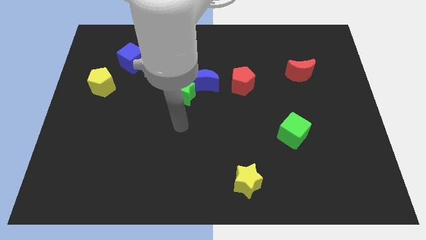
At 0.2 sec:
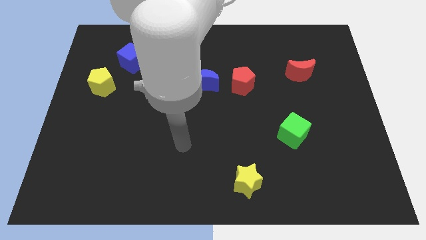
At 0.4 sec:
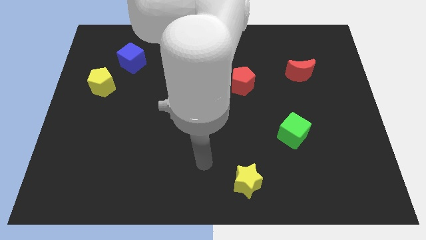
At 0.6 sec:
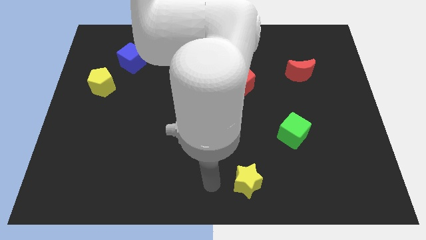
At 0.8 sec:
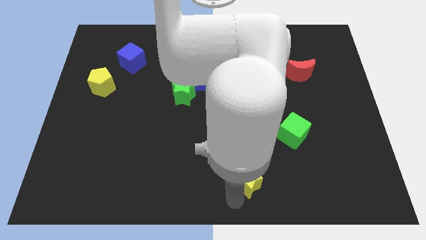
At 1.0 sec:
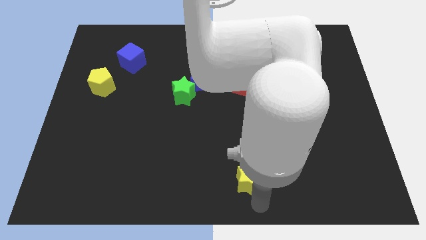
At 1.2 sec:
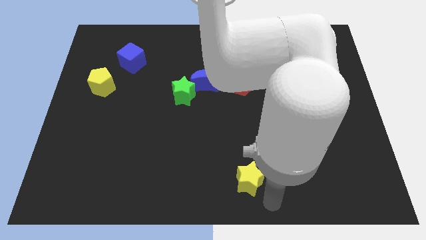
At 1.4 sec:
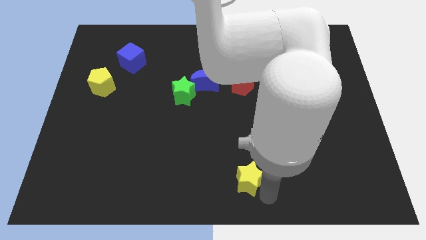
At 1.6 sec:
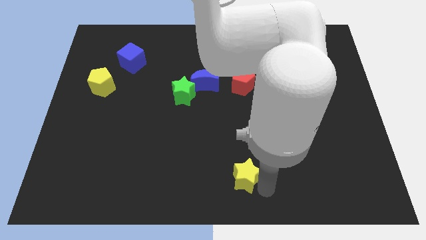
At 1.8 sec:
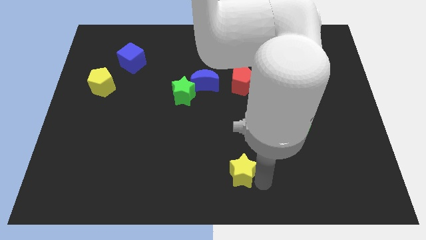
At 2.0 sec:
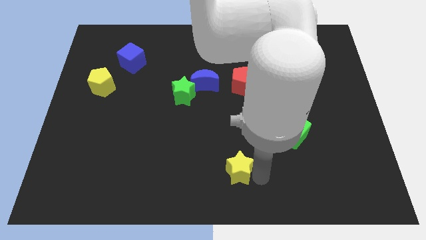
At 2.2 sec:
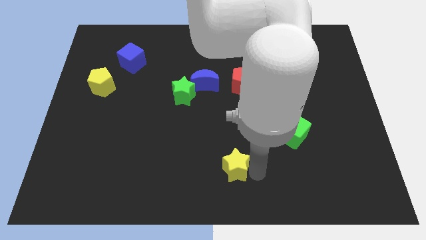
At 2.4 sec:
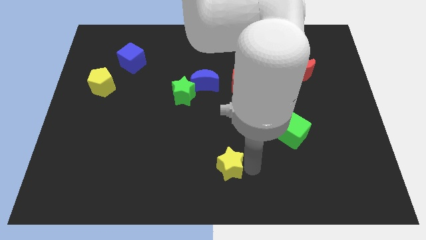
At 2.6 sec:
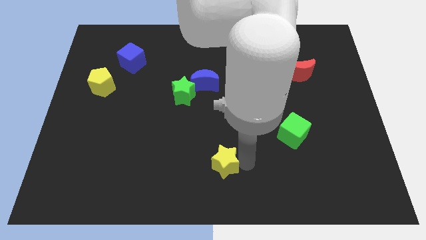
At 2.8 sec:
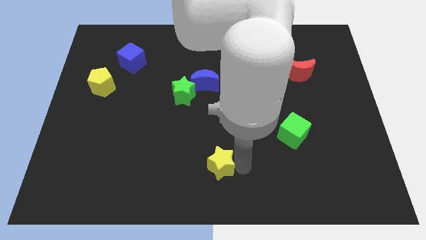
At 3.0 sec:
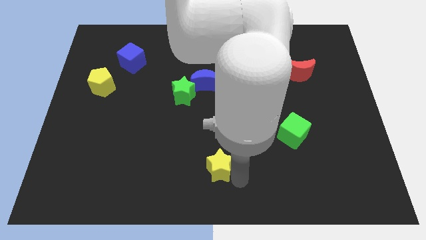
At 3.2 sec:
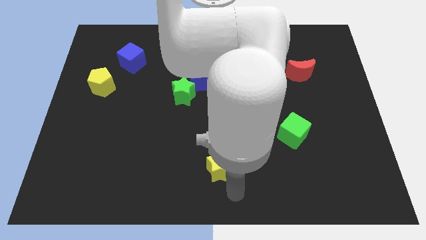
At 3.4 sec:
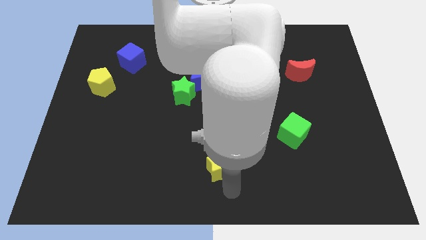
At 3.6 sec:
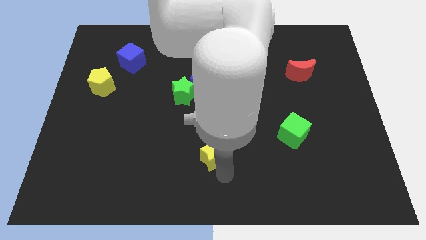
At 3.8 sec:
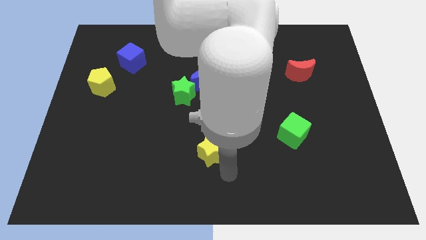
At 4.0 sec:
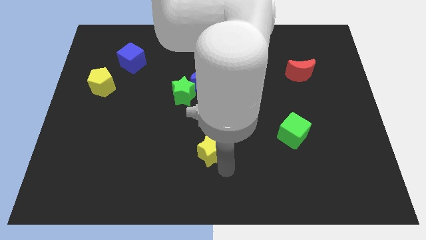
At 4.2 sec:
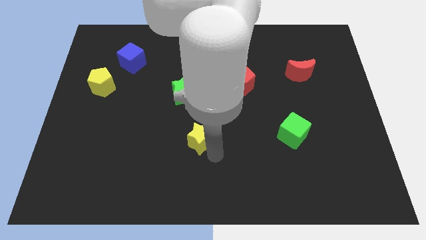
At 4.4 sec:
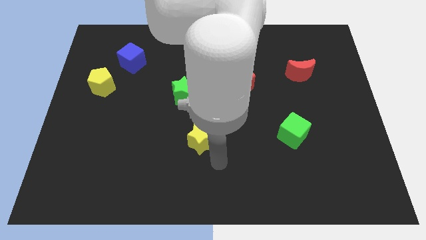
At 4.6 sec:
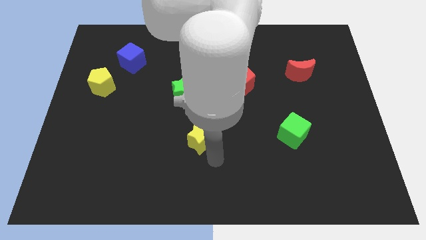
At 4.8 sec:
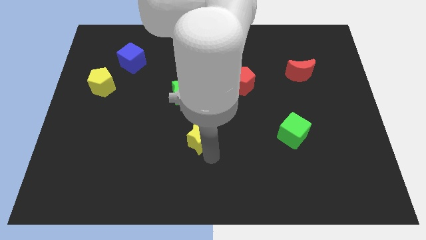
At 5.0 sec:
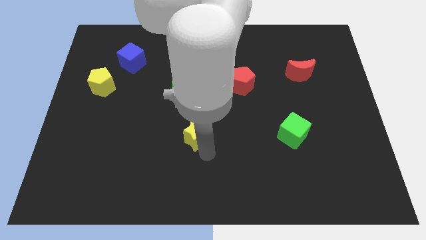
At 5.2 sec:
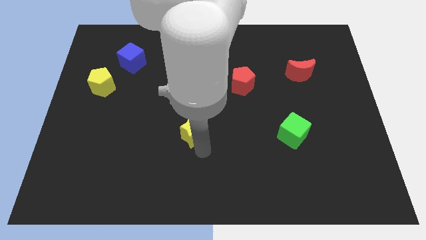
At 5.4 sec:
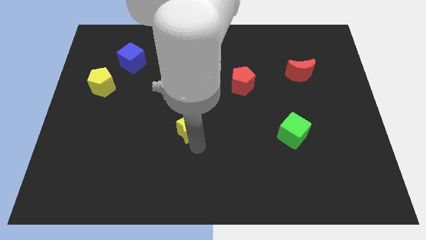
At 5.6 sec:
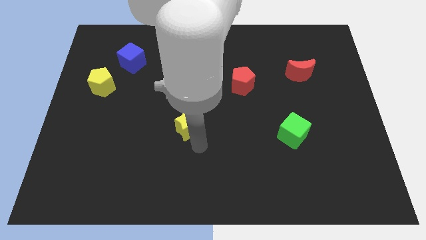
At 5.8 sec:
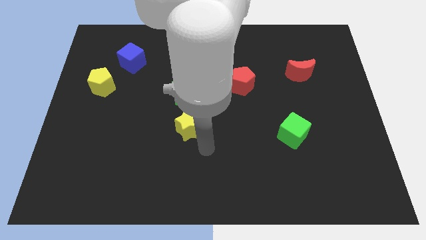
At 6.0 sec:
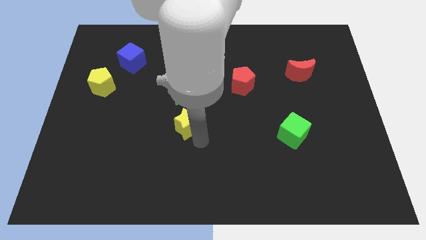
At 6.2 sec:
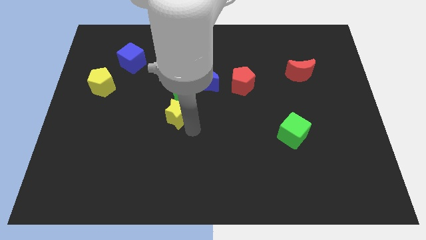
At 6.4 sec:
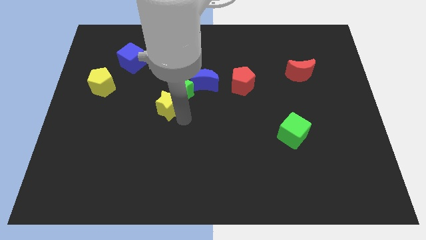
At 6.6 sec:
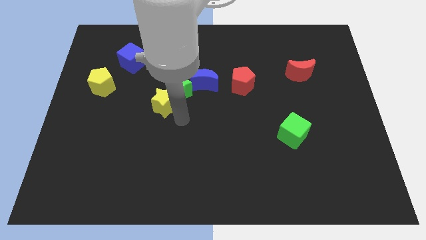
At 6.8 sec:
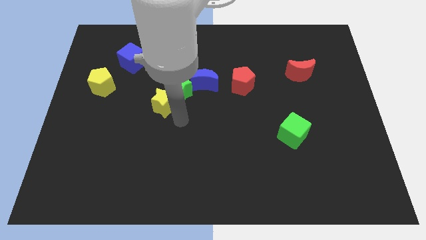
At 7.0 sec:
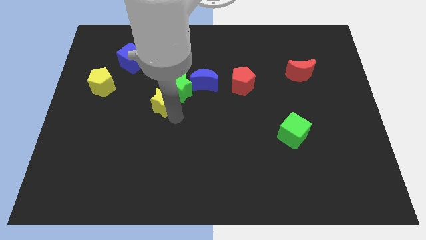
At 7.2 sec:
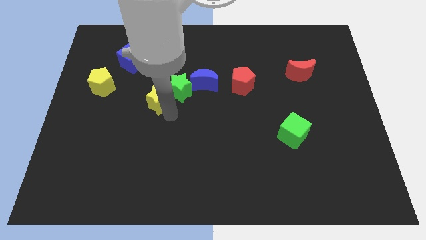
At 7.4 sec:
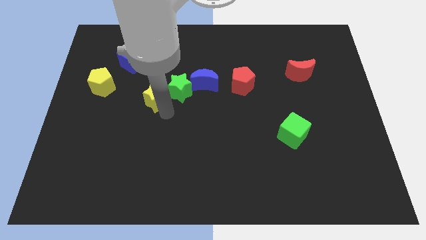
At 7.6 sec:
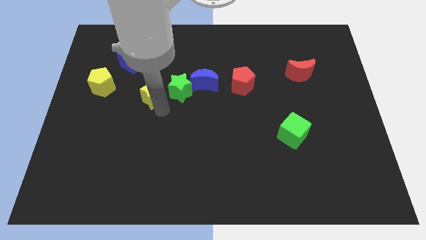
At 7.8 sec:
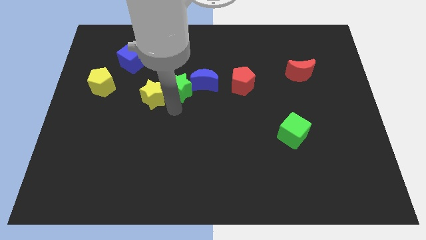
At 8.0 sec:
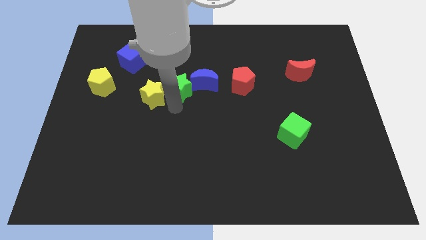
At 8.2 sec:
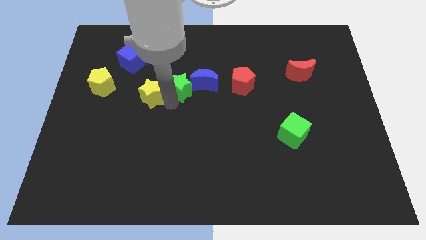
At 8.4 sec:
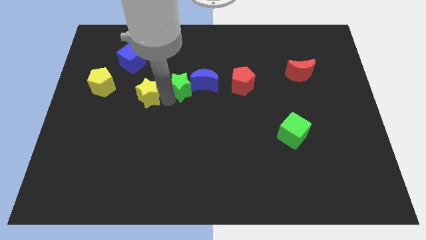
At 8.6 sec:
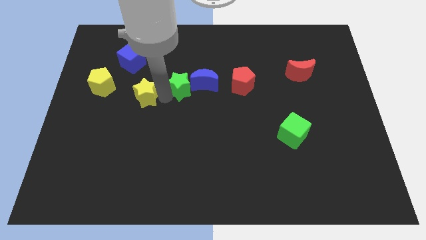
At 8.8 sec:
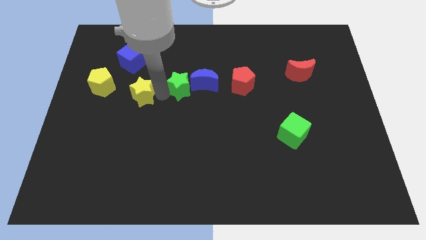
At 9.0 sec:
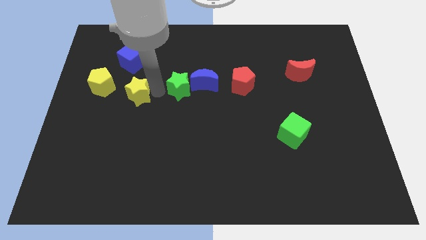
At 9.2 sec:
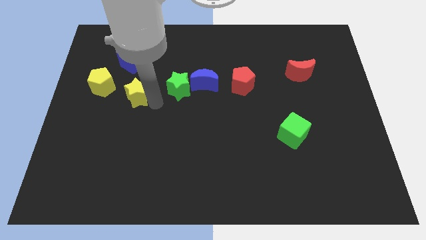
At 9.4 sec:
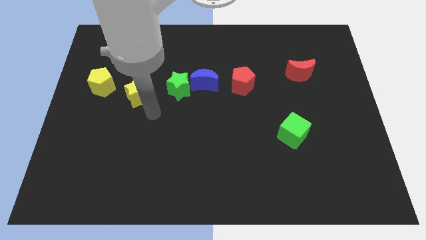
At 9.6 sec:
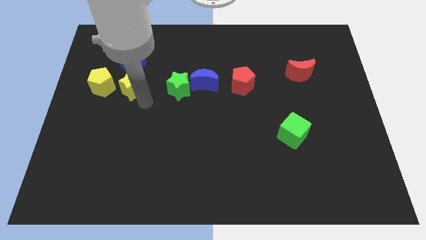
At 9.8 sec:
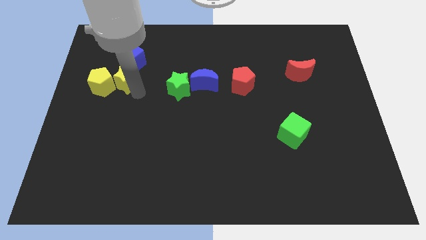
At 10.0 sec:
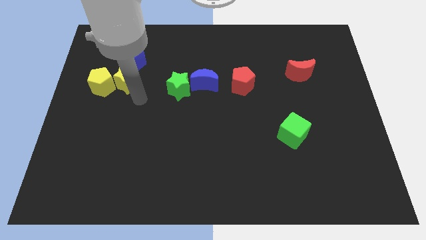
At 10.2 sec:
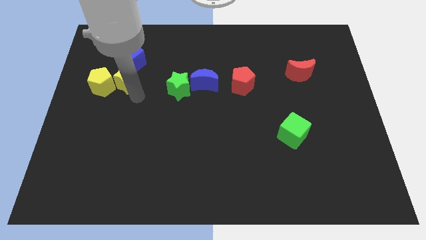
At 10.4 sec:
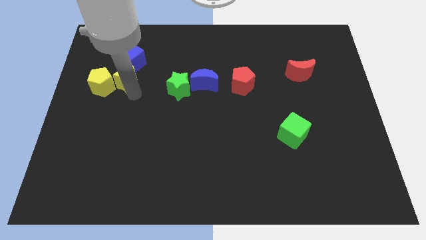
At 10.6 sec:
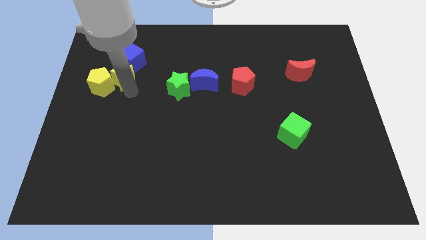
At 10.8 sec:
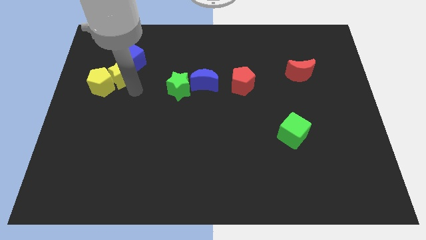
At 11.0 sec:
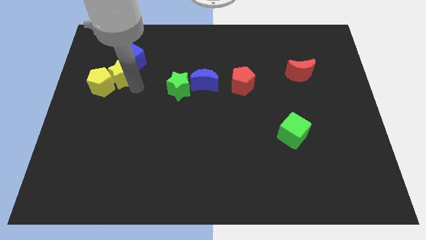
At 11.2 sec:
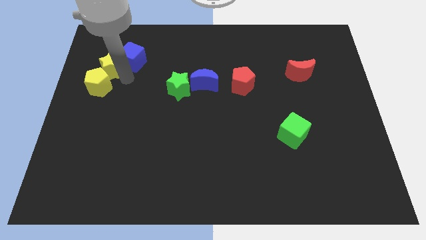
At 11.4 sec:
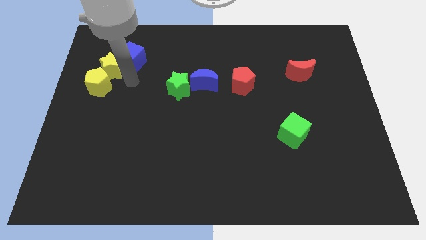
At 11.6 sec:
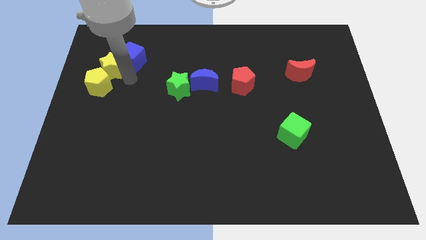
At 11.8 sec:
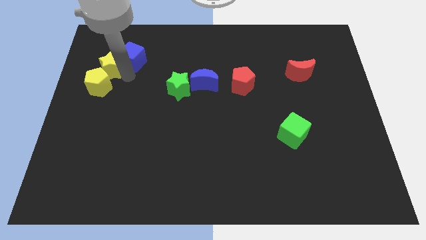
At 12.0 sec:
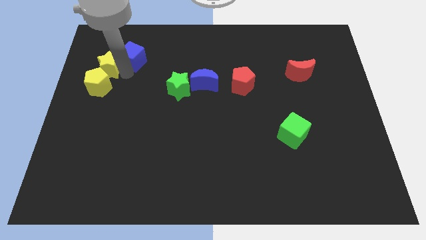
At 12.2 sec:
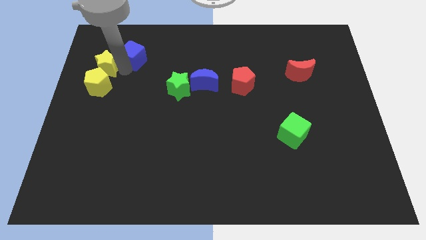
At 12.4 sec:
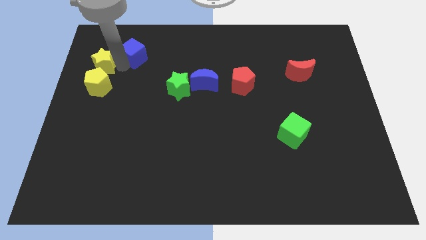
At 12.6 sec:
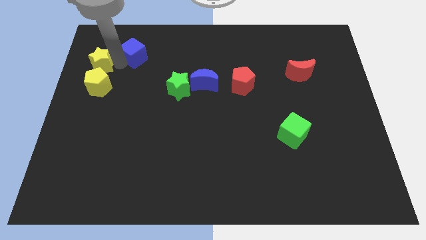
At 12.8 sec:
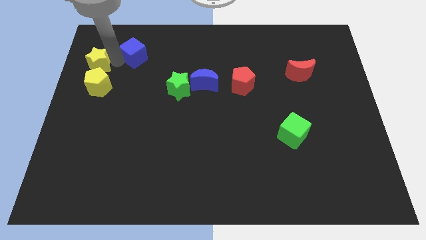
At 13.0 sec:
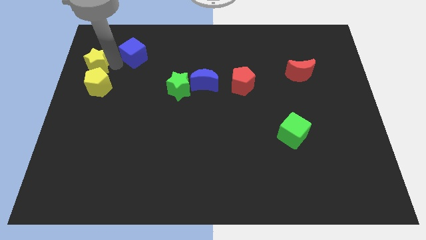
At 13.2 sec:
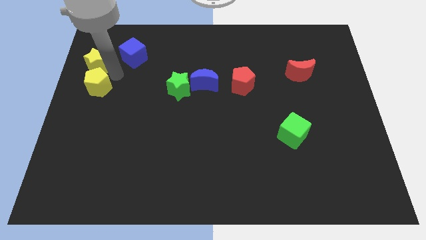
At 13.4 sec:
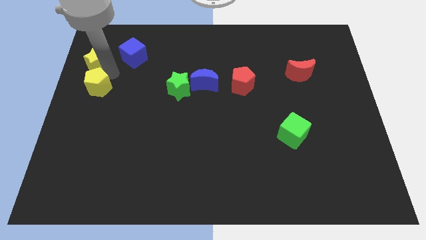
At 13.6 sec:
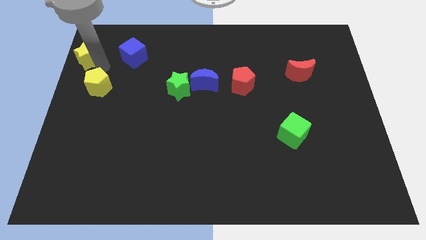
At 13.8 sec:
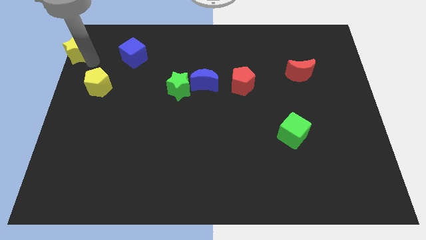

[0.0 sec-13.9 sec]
put the yellow star to the top left corner
